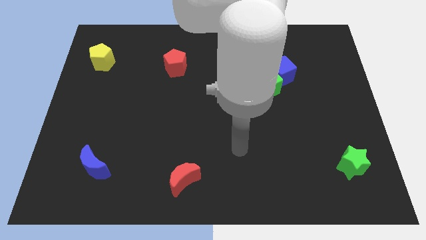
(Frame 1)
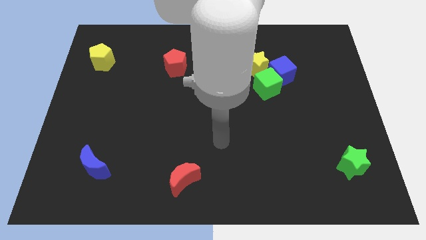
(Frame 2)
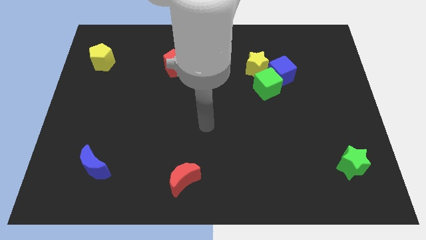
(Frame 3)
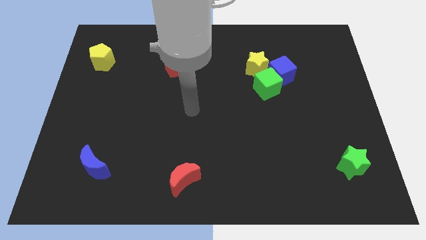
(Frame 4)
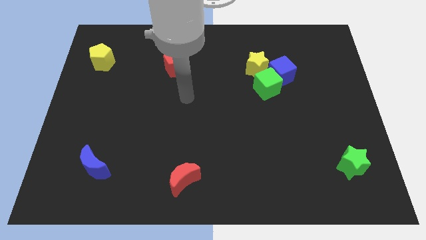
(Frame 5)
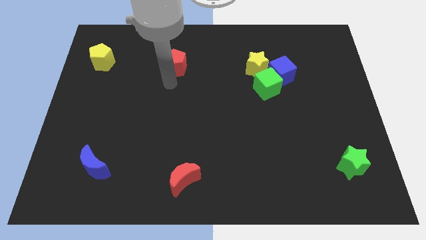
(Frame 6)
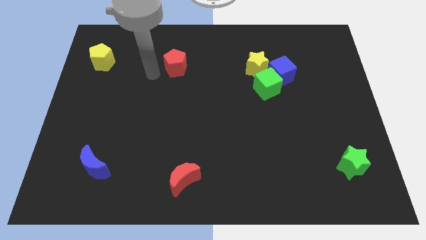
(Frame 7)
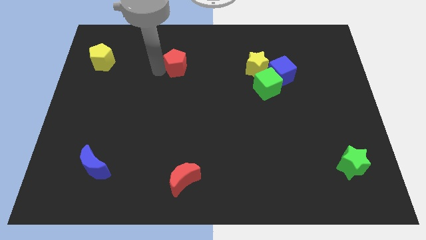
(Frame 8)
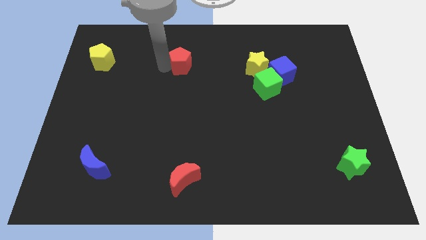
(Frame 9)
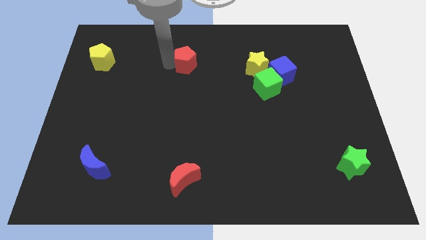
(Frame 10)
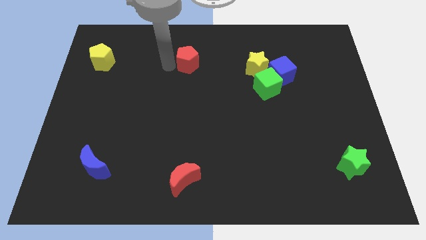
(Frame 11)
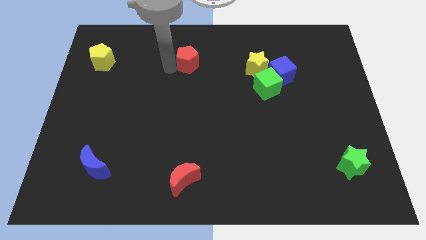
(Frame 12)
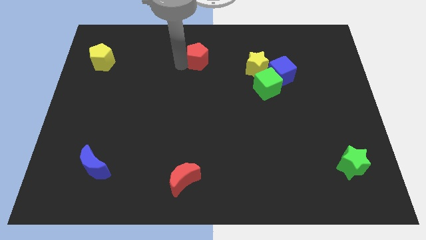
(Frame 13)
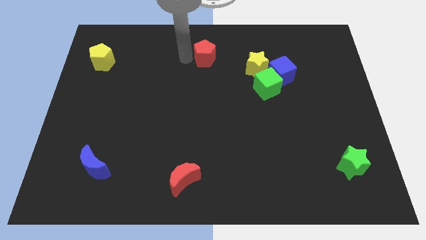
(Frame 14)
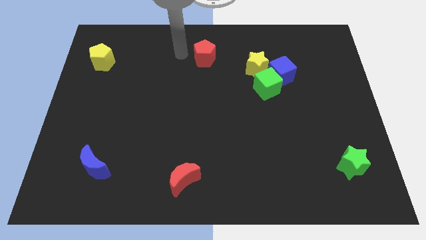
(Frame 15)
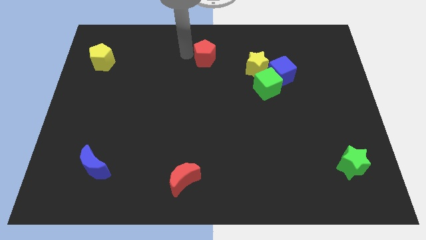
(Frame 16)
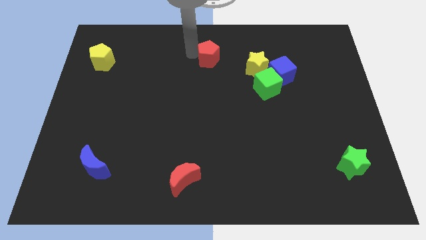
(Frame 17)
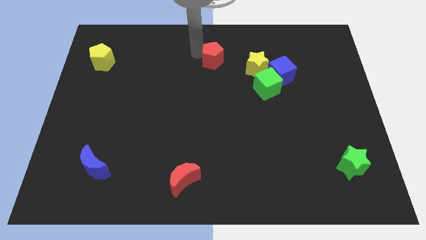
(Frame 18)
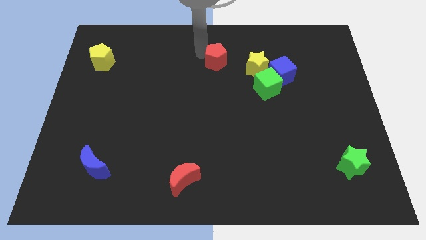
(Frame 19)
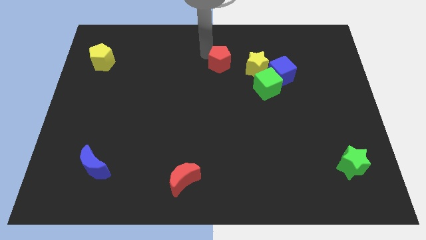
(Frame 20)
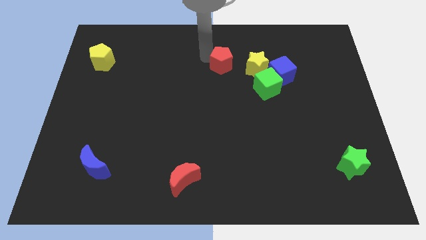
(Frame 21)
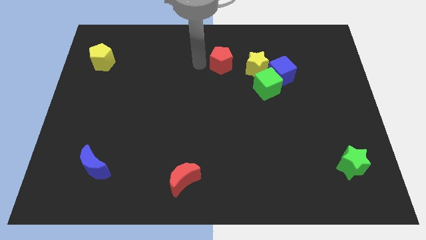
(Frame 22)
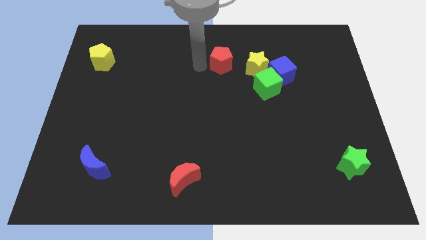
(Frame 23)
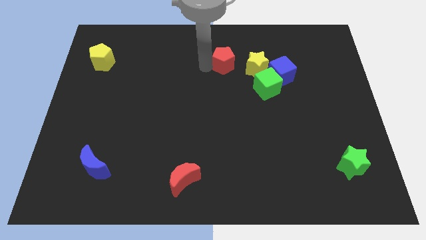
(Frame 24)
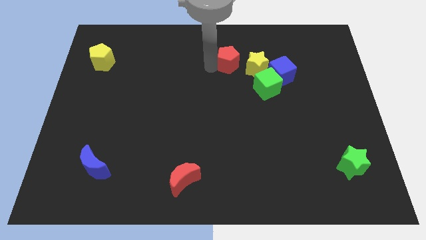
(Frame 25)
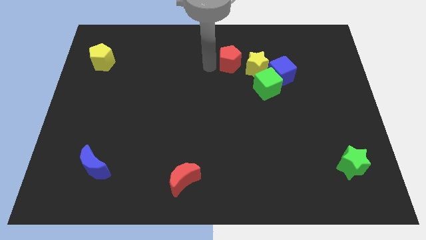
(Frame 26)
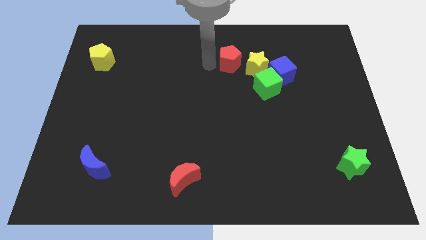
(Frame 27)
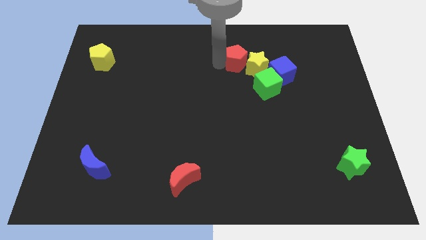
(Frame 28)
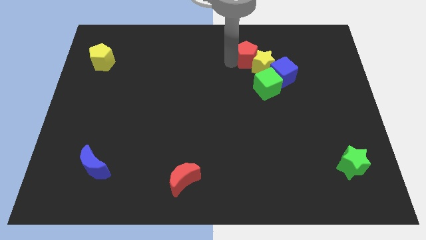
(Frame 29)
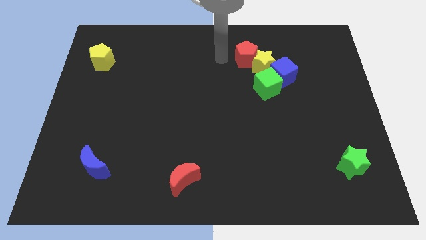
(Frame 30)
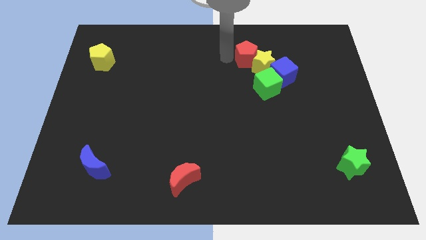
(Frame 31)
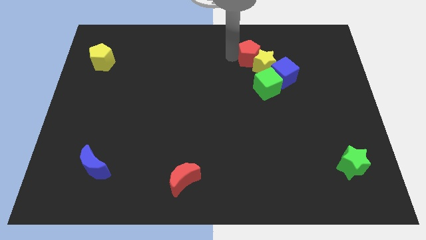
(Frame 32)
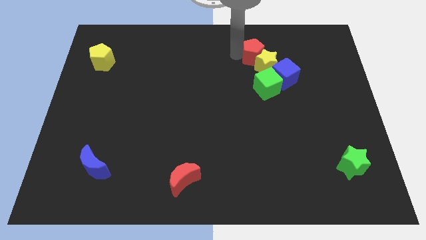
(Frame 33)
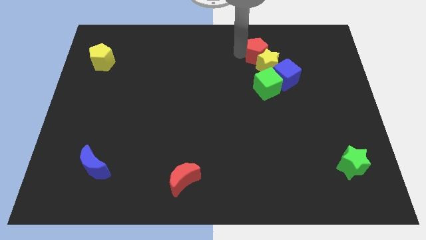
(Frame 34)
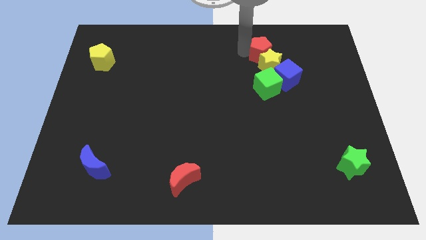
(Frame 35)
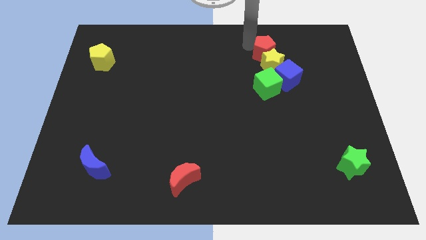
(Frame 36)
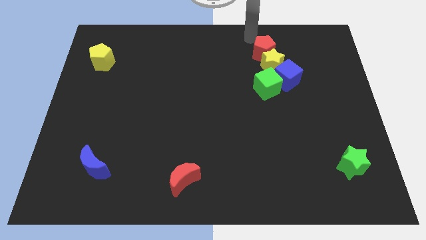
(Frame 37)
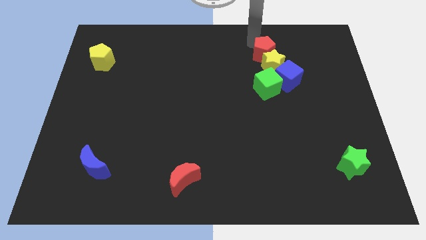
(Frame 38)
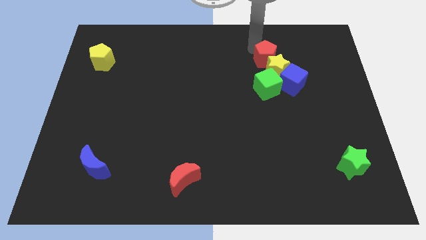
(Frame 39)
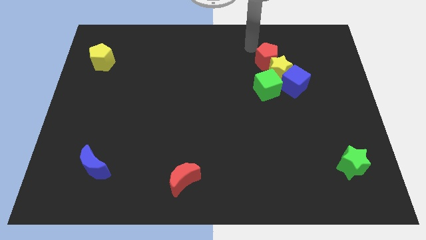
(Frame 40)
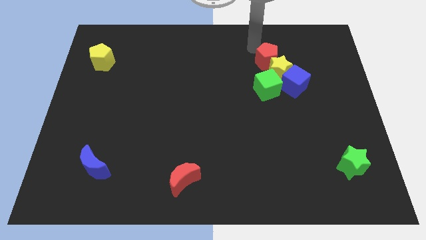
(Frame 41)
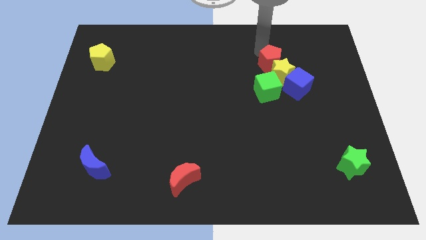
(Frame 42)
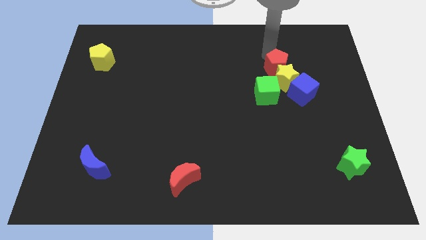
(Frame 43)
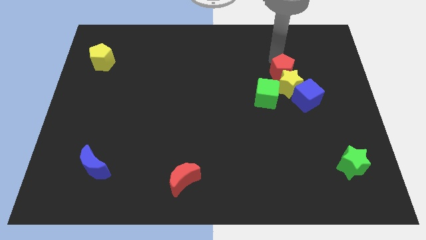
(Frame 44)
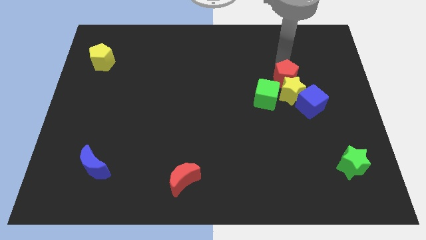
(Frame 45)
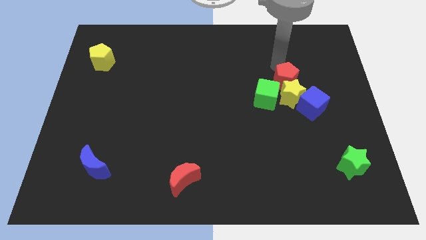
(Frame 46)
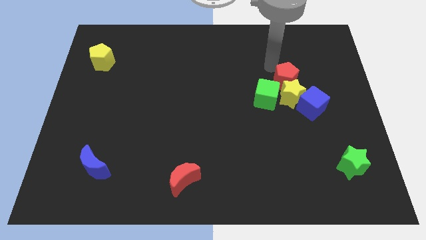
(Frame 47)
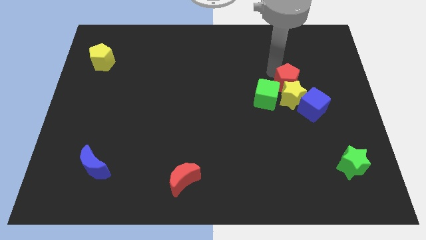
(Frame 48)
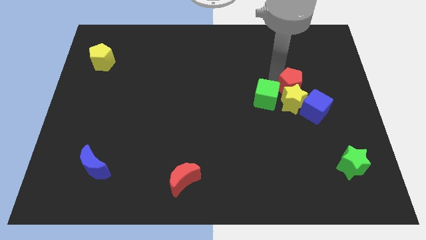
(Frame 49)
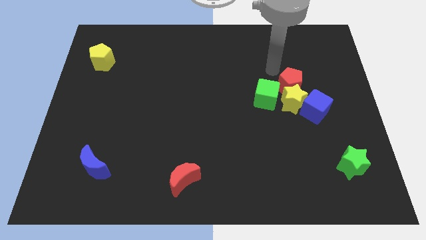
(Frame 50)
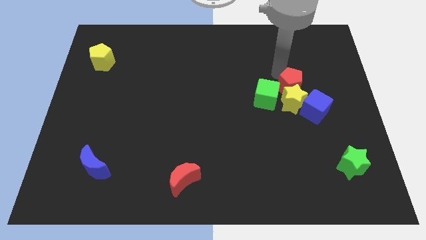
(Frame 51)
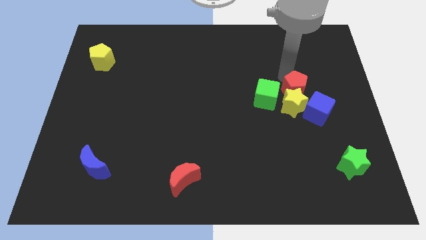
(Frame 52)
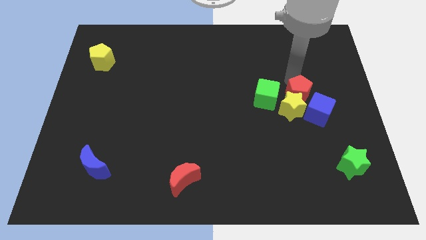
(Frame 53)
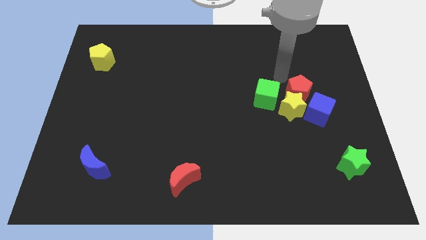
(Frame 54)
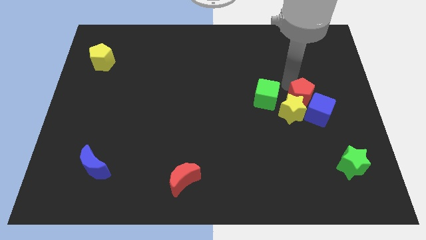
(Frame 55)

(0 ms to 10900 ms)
push the red pentagon towards the blue cube

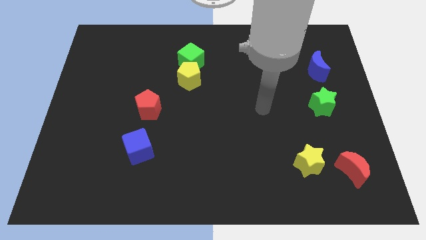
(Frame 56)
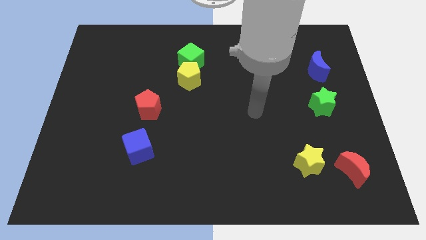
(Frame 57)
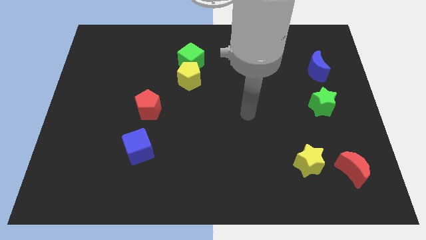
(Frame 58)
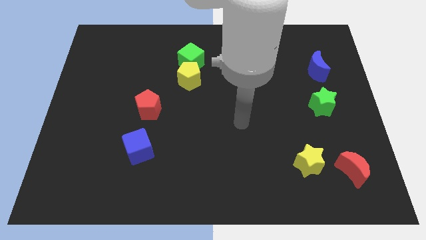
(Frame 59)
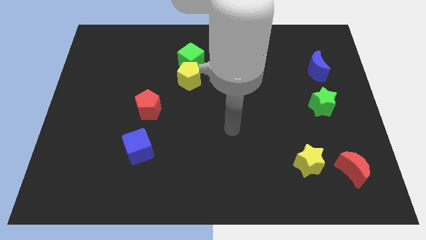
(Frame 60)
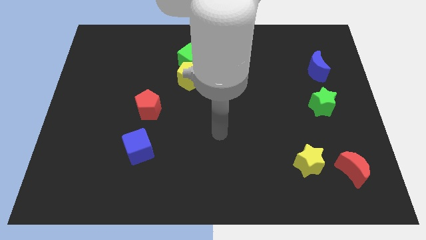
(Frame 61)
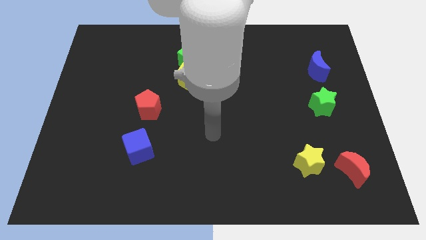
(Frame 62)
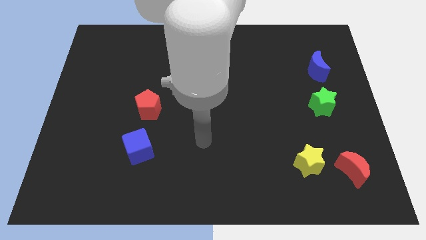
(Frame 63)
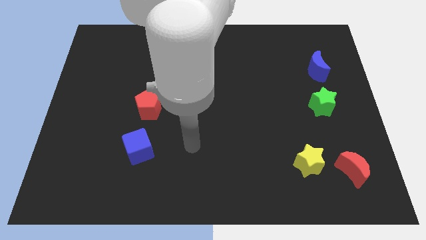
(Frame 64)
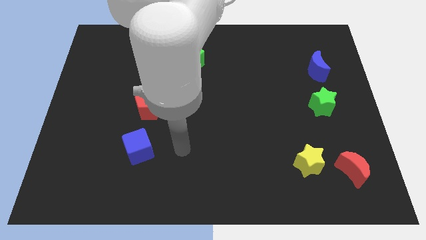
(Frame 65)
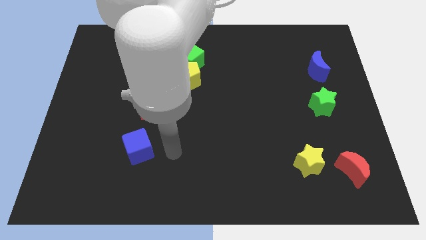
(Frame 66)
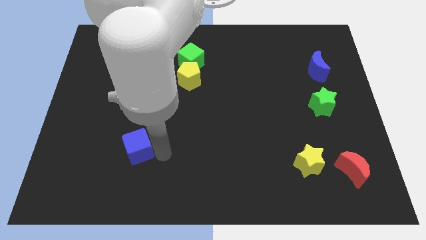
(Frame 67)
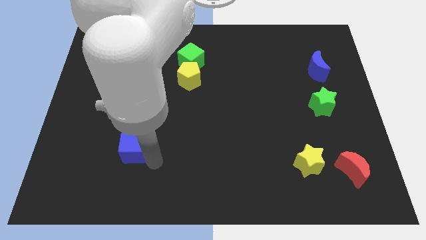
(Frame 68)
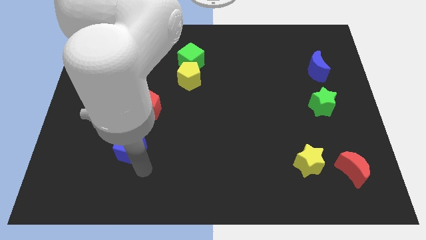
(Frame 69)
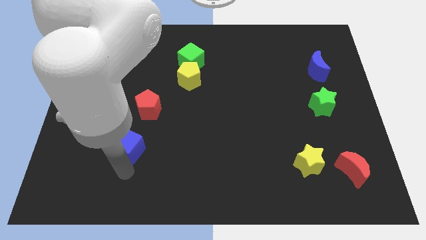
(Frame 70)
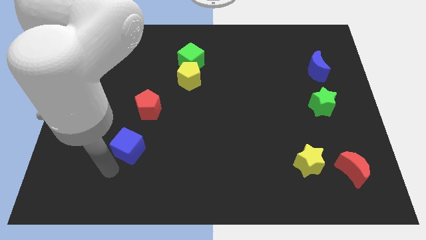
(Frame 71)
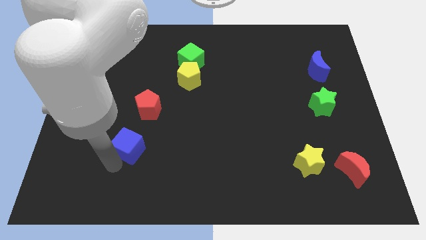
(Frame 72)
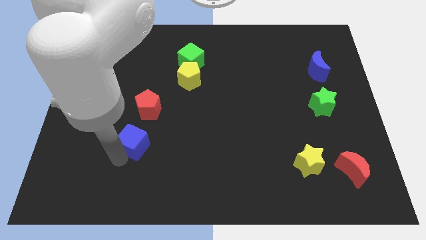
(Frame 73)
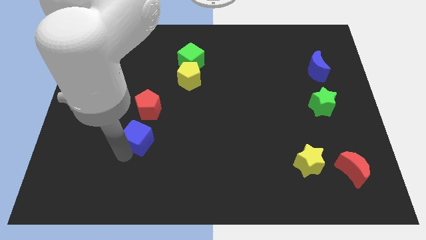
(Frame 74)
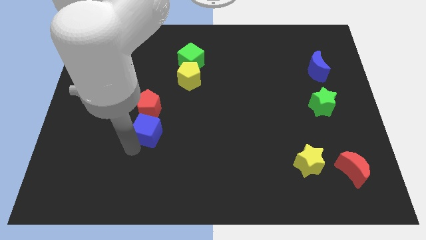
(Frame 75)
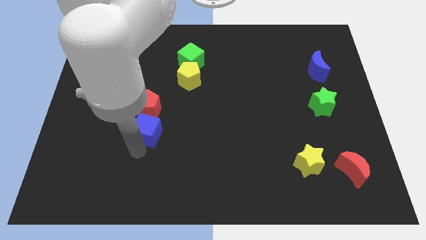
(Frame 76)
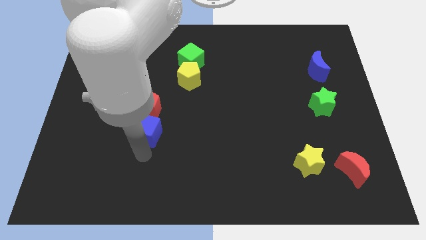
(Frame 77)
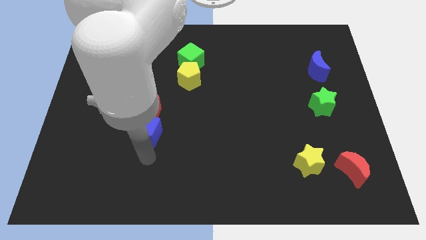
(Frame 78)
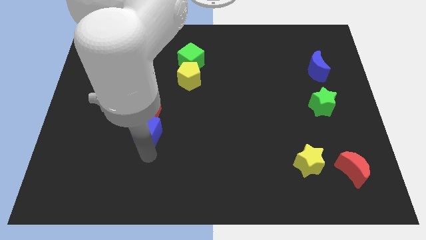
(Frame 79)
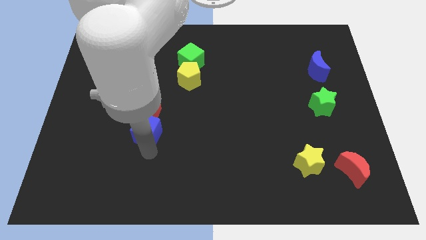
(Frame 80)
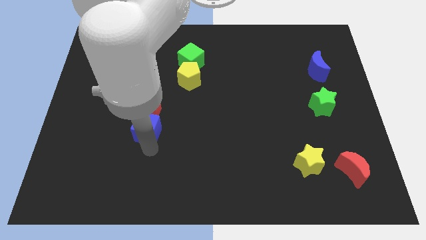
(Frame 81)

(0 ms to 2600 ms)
move the blue cube towards the red pentagon
